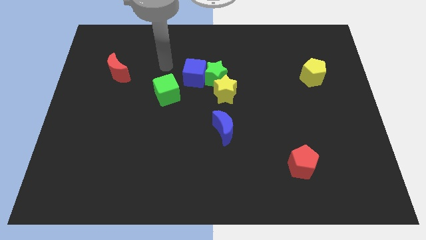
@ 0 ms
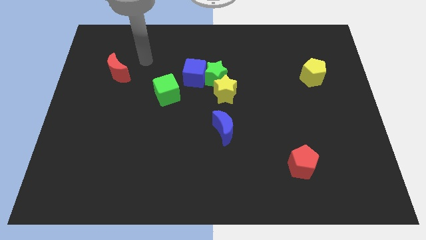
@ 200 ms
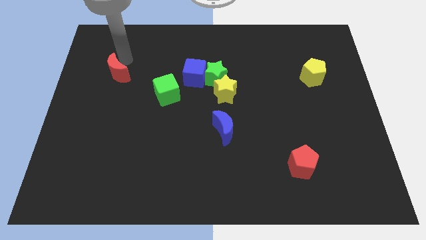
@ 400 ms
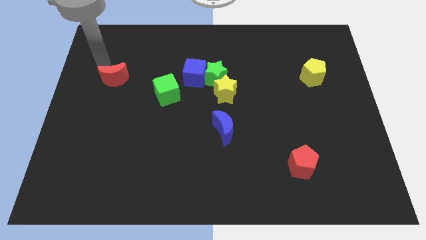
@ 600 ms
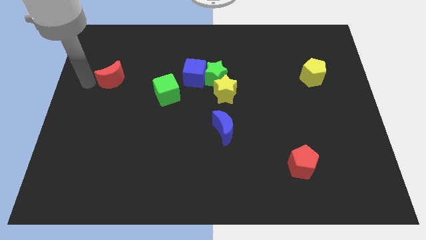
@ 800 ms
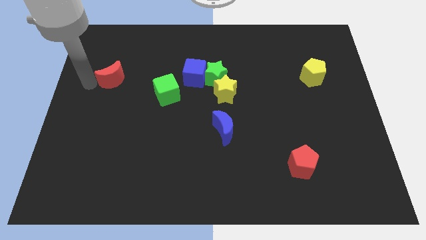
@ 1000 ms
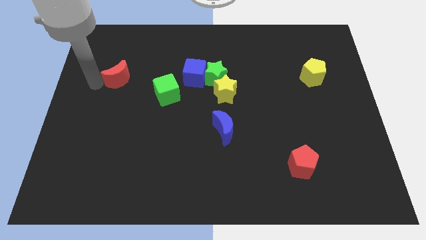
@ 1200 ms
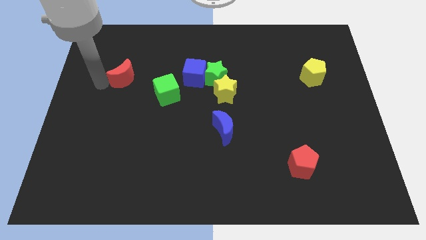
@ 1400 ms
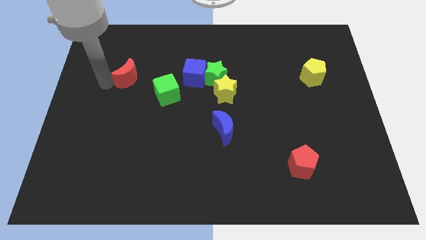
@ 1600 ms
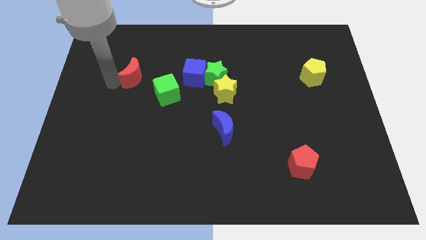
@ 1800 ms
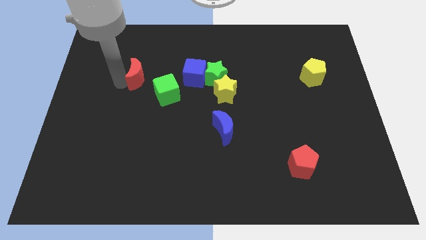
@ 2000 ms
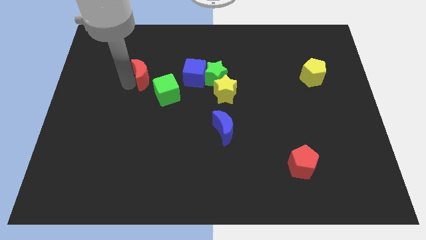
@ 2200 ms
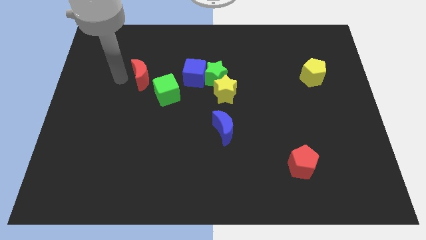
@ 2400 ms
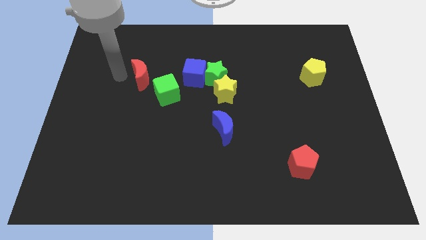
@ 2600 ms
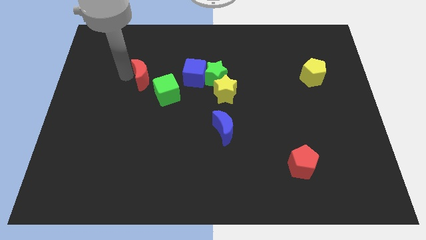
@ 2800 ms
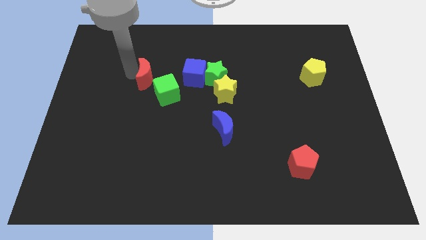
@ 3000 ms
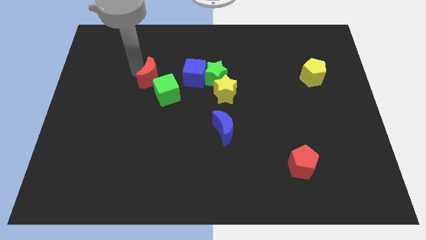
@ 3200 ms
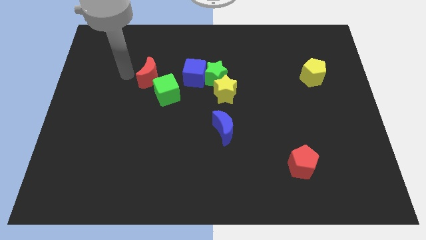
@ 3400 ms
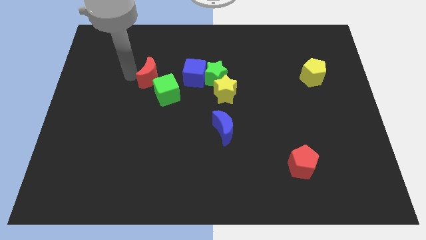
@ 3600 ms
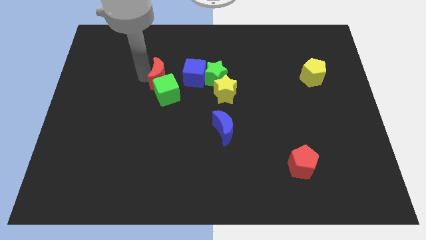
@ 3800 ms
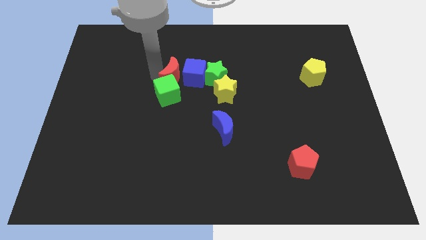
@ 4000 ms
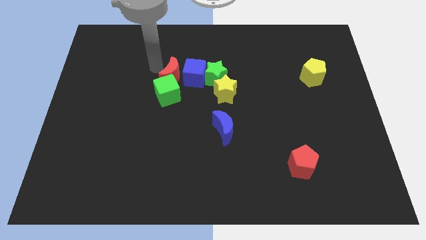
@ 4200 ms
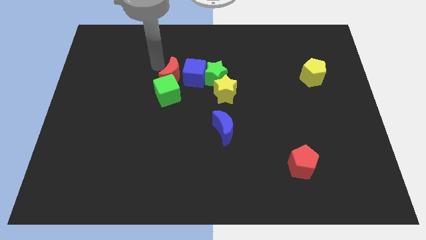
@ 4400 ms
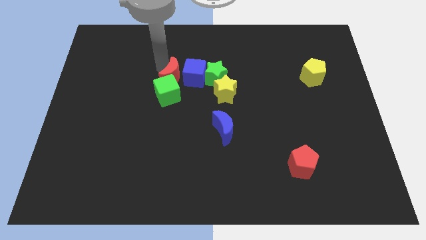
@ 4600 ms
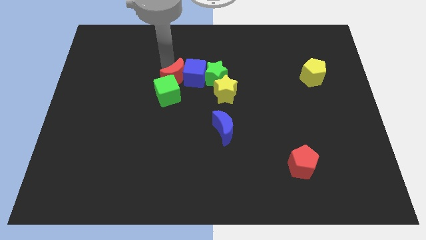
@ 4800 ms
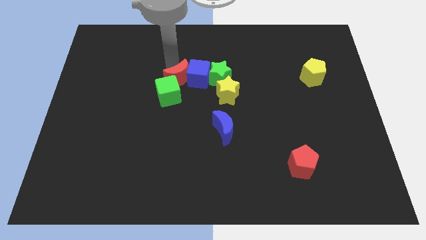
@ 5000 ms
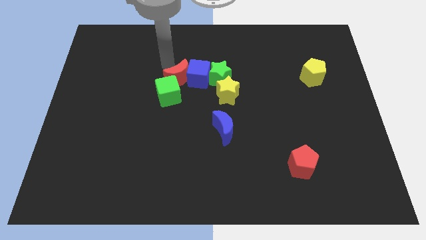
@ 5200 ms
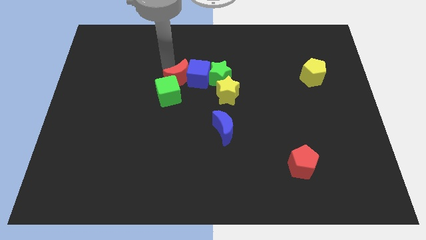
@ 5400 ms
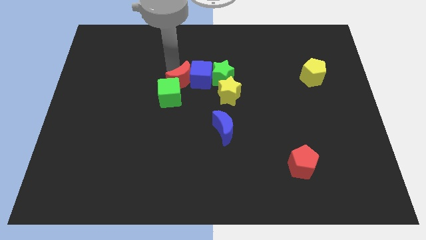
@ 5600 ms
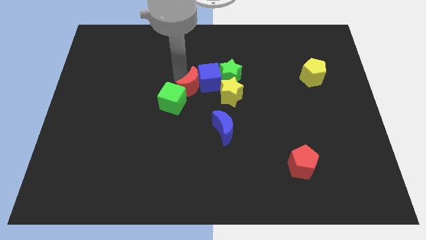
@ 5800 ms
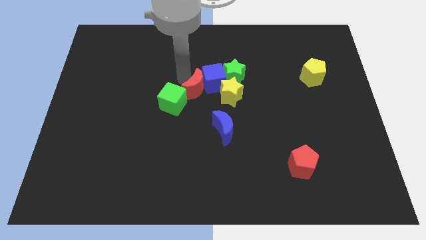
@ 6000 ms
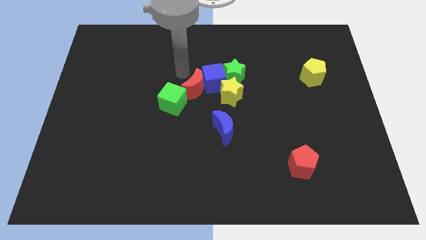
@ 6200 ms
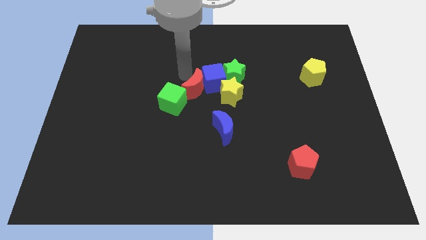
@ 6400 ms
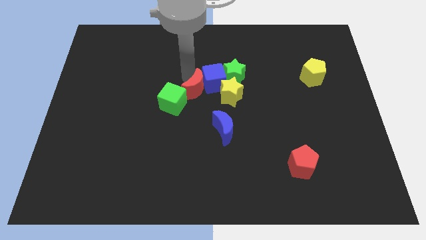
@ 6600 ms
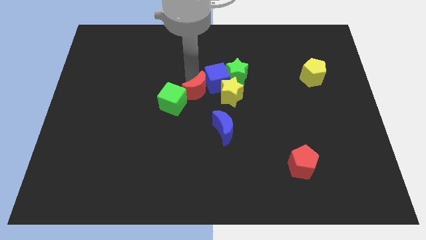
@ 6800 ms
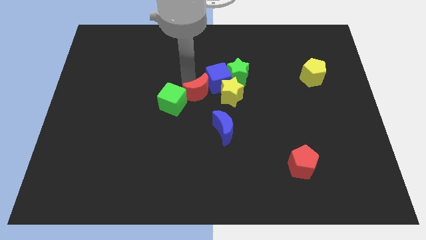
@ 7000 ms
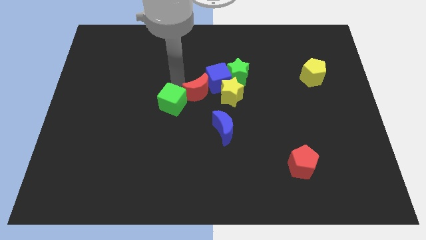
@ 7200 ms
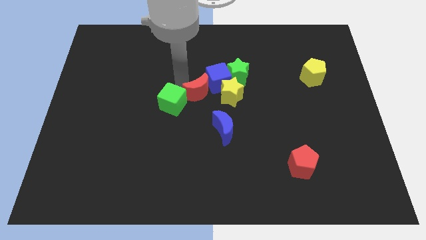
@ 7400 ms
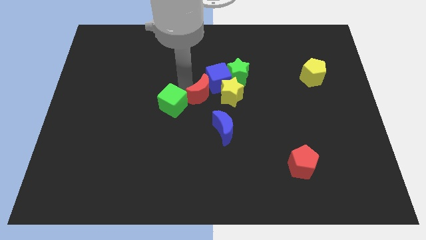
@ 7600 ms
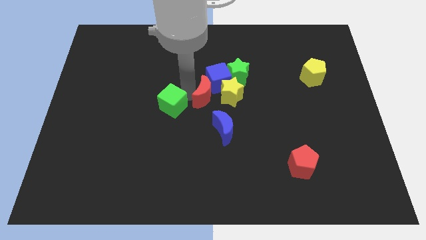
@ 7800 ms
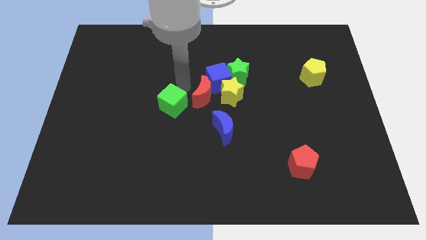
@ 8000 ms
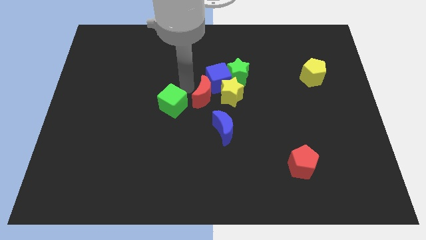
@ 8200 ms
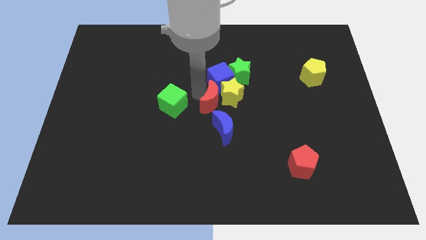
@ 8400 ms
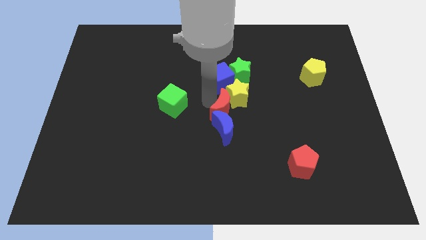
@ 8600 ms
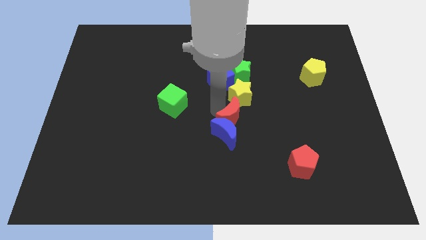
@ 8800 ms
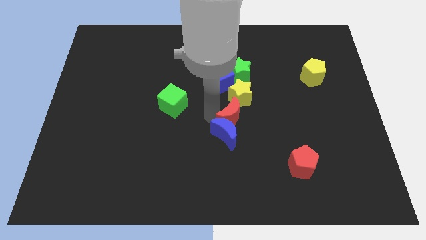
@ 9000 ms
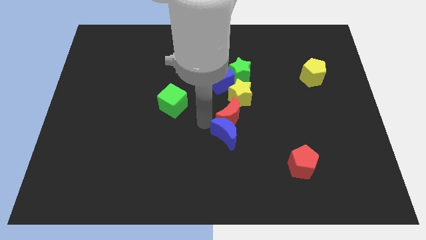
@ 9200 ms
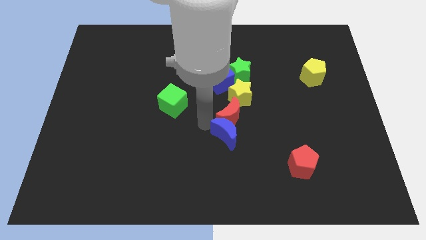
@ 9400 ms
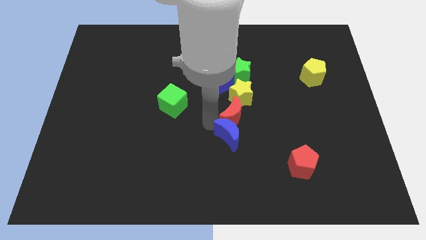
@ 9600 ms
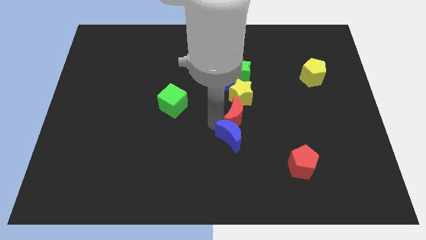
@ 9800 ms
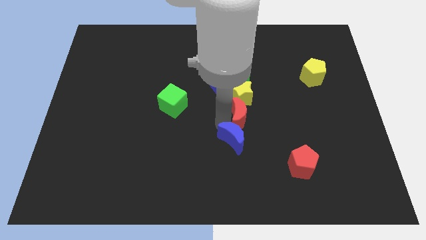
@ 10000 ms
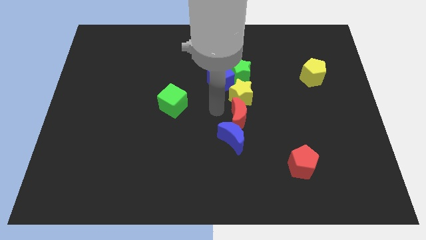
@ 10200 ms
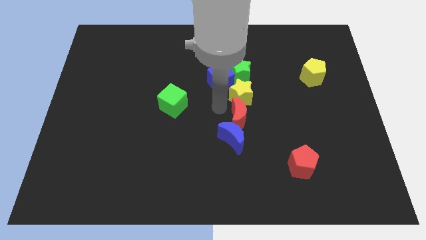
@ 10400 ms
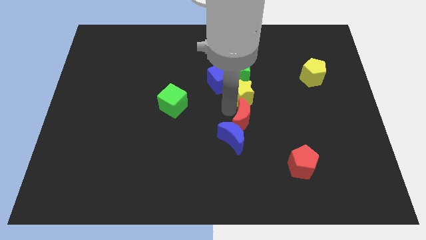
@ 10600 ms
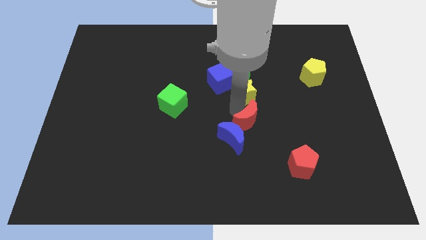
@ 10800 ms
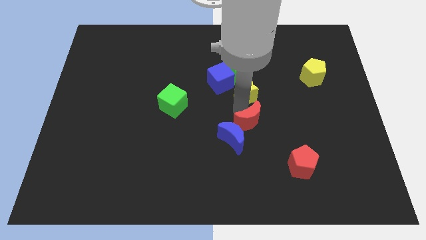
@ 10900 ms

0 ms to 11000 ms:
push the red moon to the right of the blue moon
